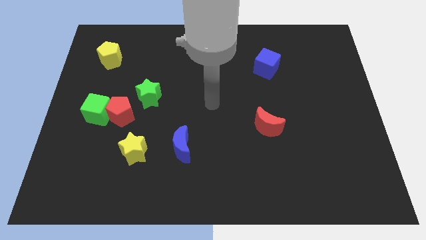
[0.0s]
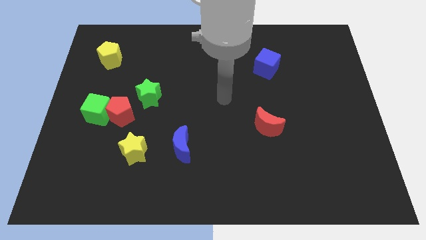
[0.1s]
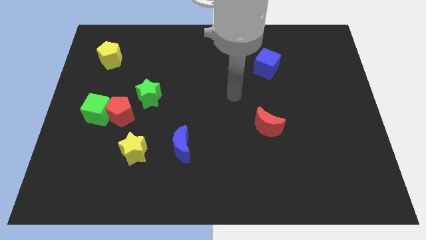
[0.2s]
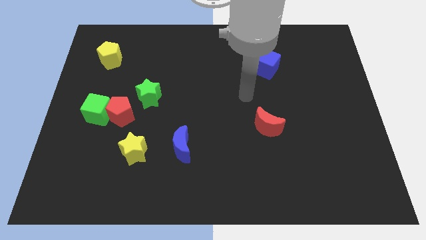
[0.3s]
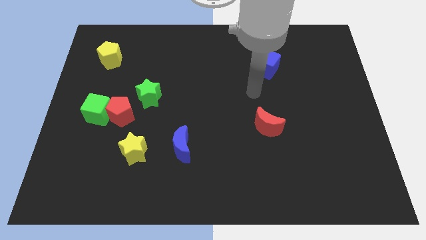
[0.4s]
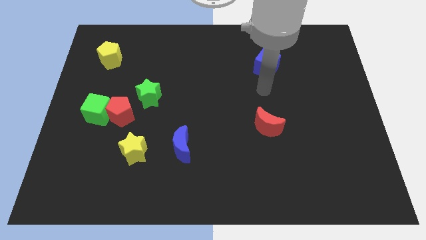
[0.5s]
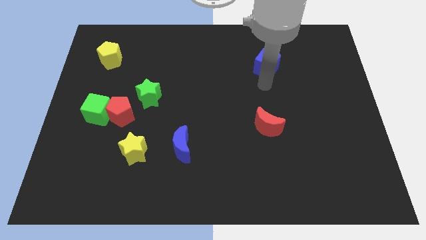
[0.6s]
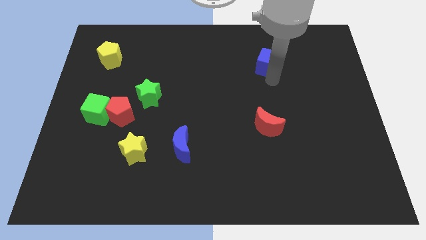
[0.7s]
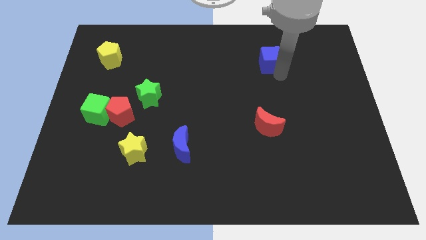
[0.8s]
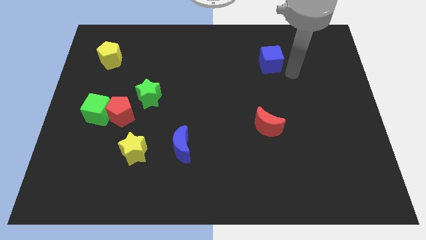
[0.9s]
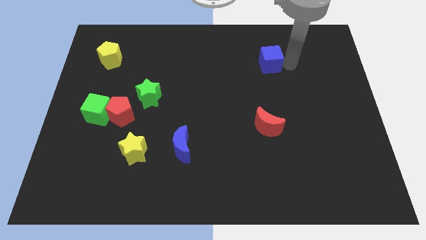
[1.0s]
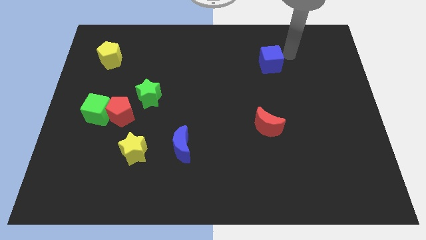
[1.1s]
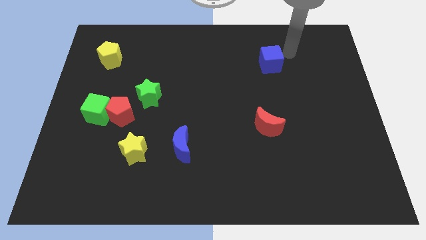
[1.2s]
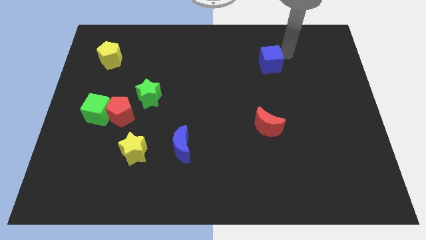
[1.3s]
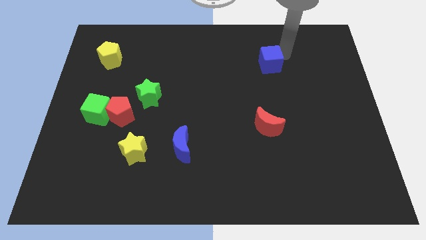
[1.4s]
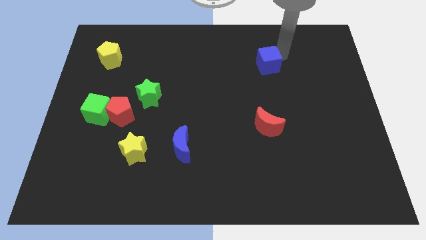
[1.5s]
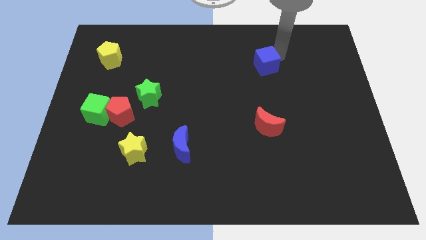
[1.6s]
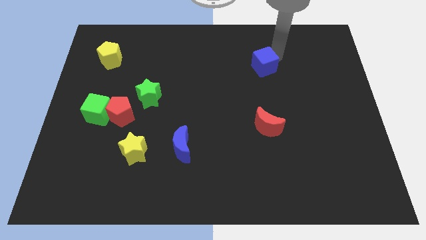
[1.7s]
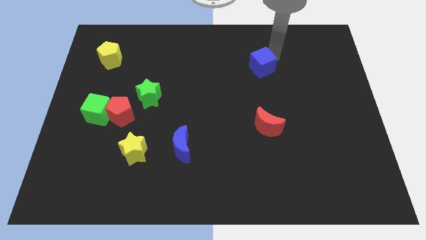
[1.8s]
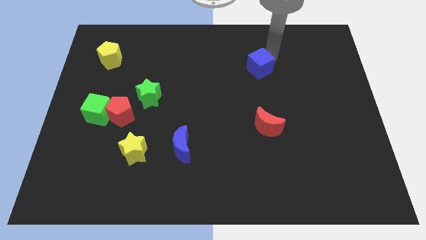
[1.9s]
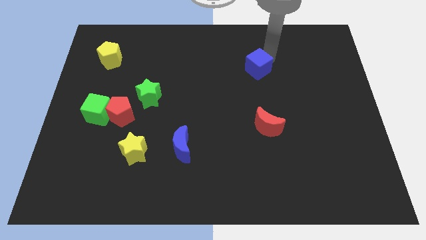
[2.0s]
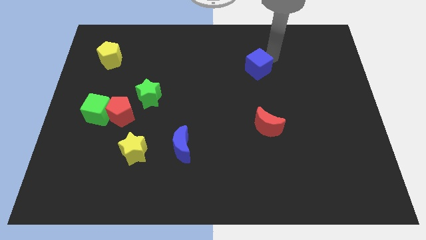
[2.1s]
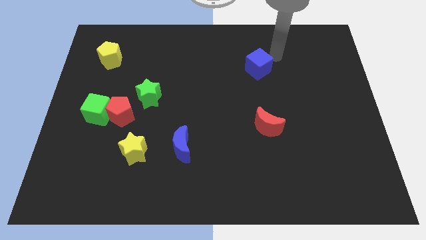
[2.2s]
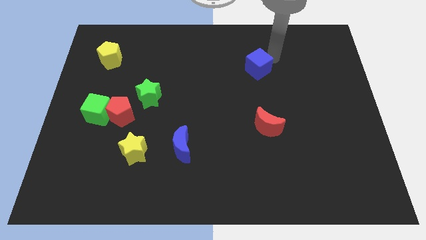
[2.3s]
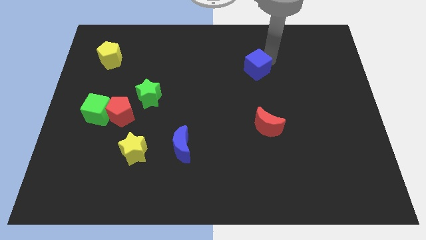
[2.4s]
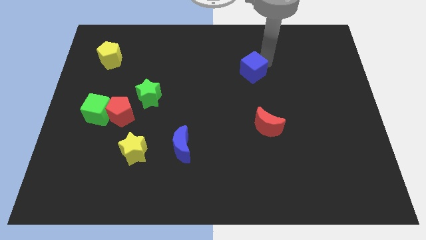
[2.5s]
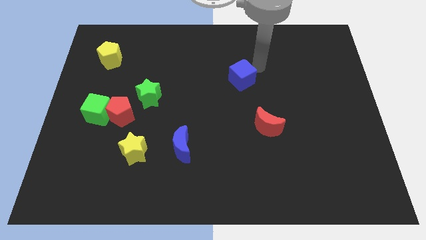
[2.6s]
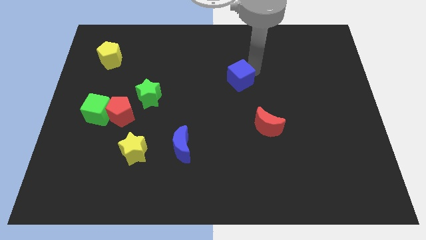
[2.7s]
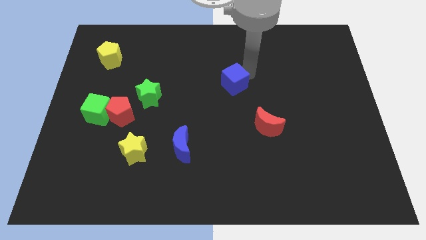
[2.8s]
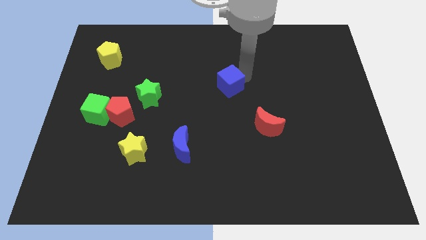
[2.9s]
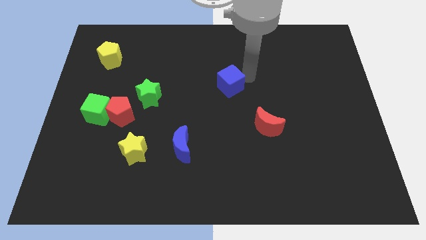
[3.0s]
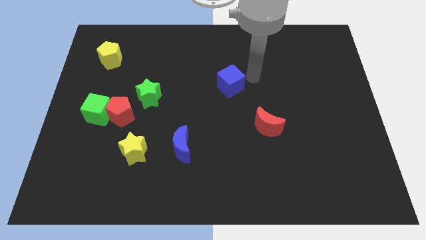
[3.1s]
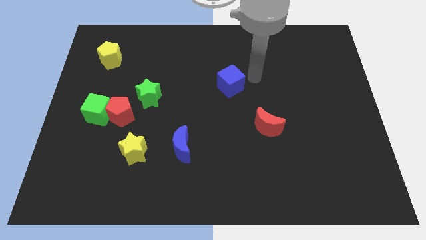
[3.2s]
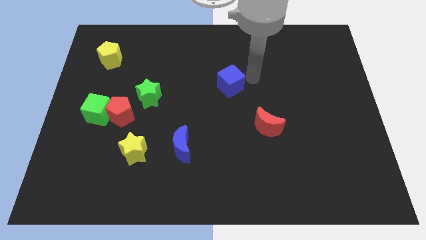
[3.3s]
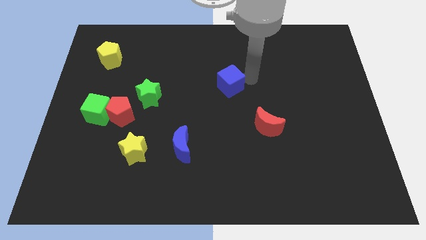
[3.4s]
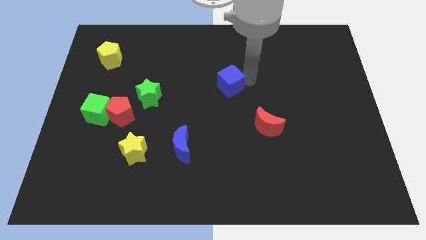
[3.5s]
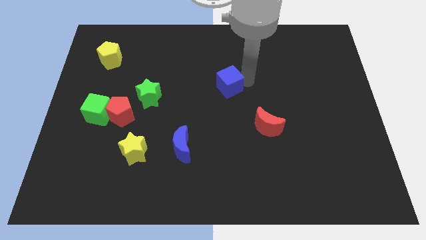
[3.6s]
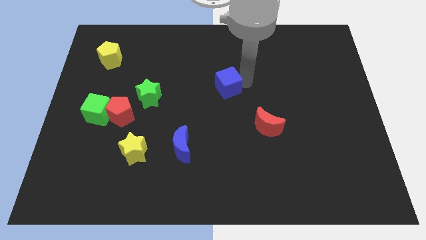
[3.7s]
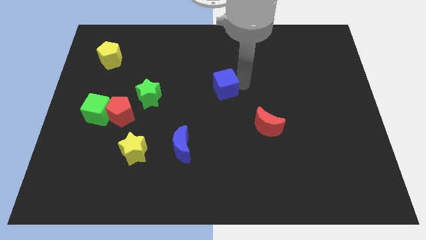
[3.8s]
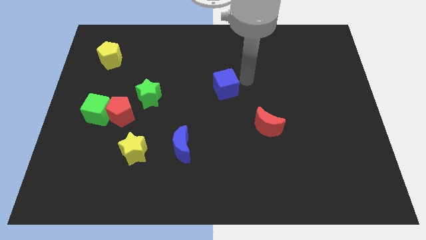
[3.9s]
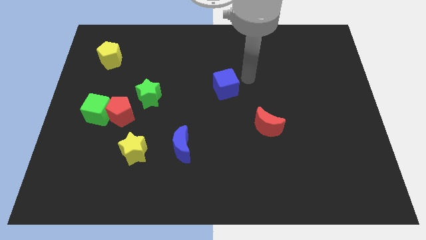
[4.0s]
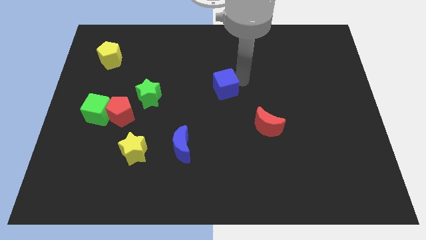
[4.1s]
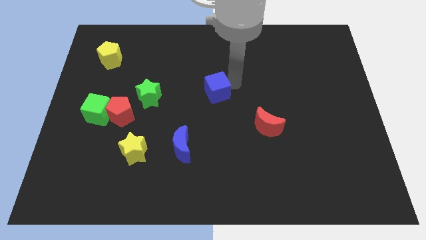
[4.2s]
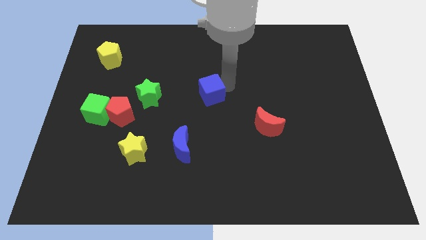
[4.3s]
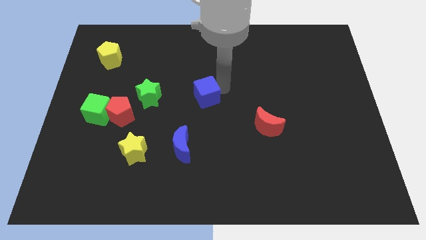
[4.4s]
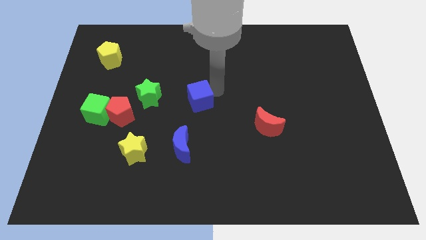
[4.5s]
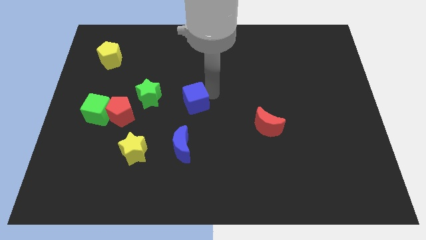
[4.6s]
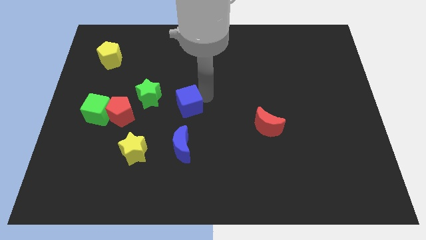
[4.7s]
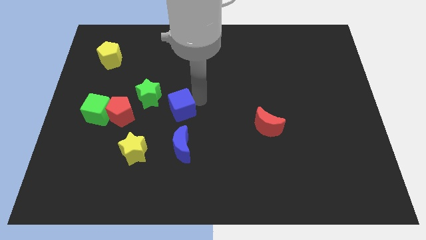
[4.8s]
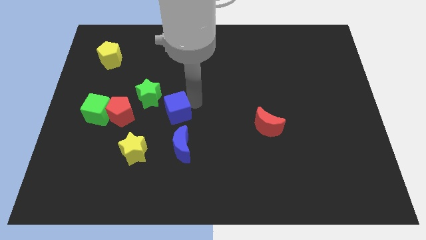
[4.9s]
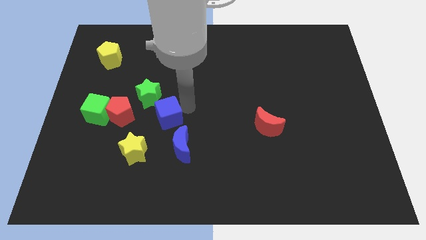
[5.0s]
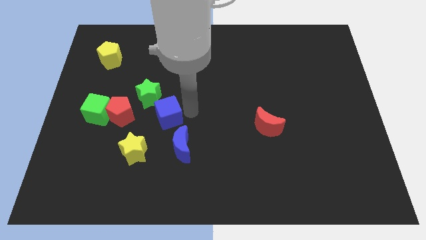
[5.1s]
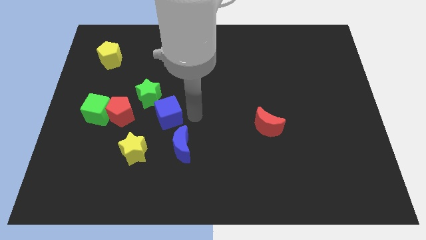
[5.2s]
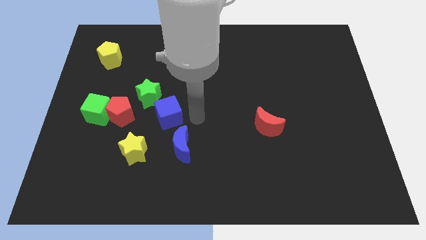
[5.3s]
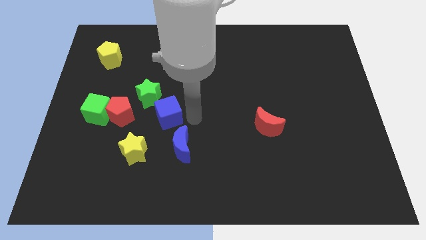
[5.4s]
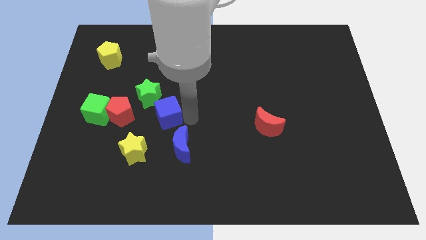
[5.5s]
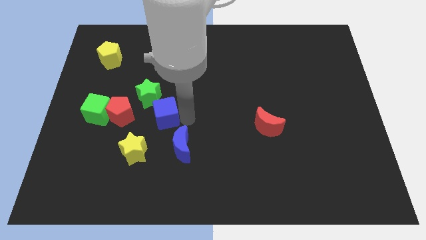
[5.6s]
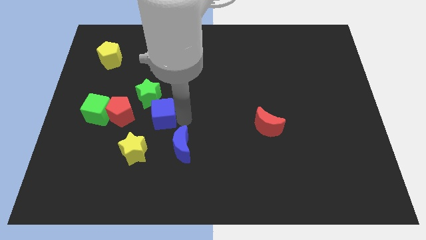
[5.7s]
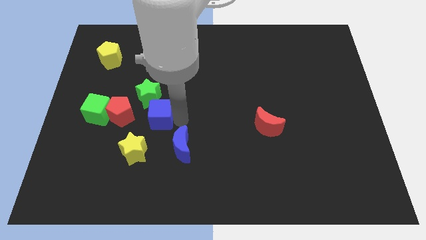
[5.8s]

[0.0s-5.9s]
slide the blue cube to the top of the yellow star

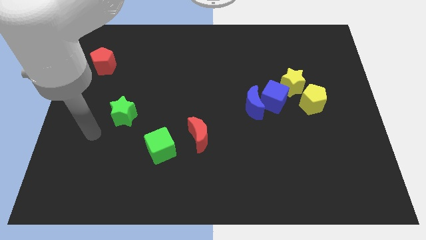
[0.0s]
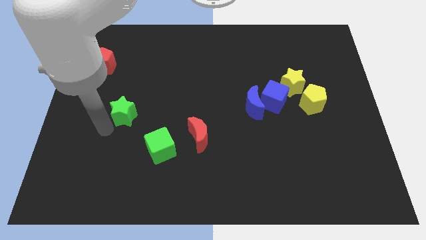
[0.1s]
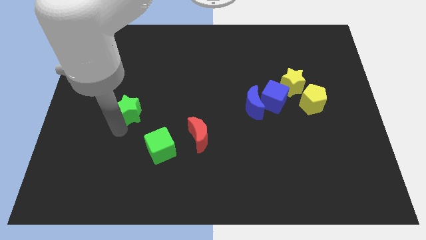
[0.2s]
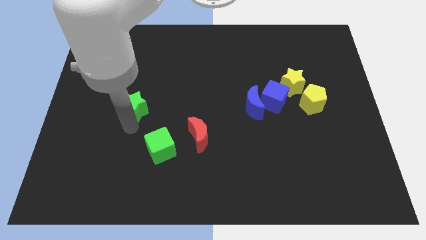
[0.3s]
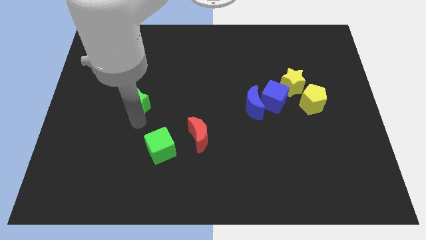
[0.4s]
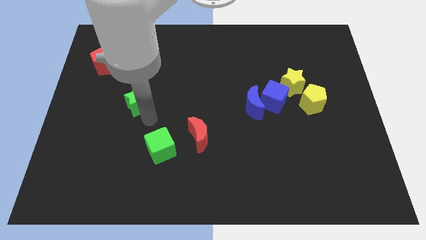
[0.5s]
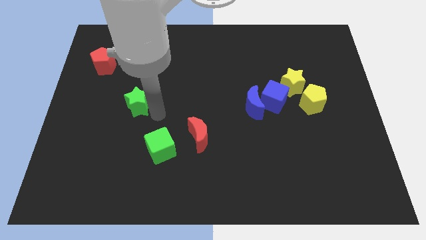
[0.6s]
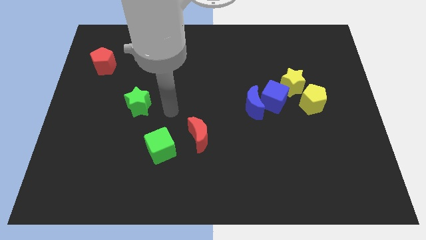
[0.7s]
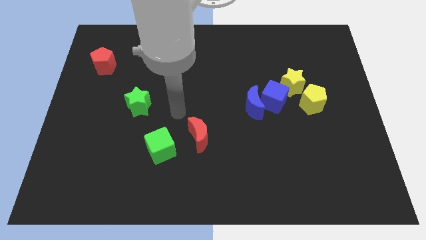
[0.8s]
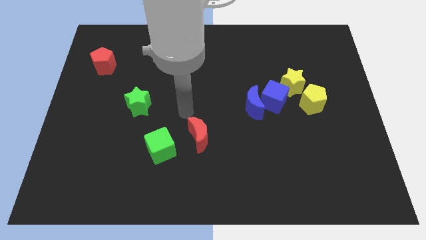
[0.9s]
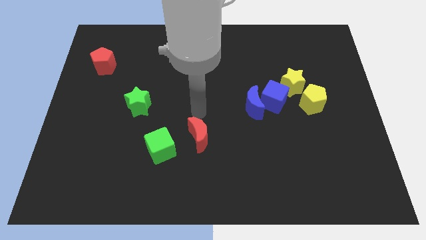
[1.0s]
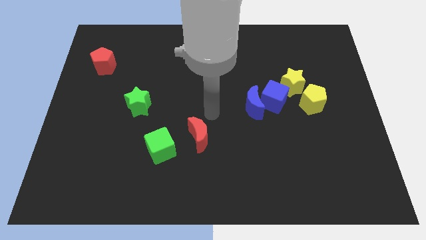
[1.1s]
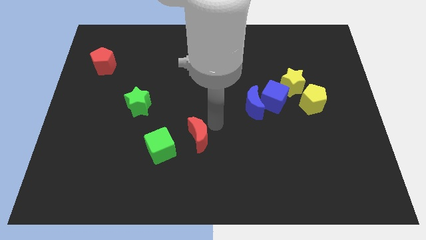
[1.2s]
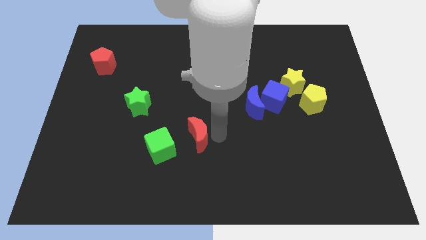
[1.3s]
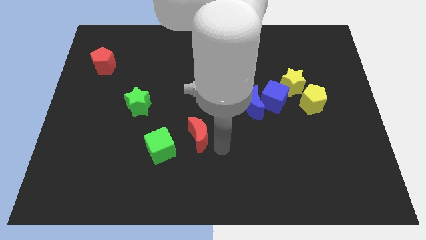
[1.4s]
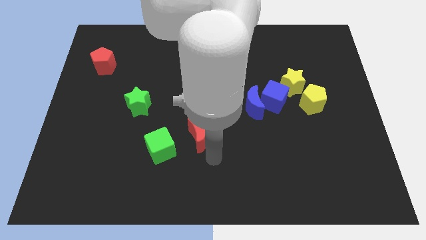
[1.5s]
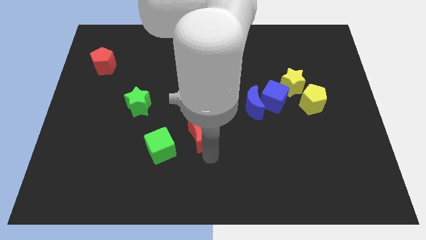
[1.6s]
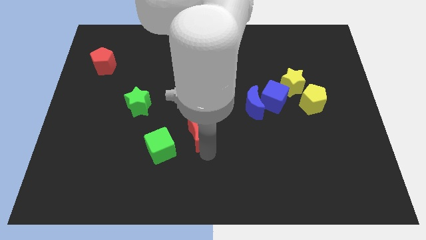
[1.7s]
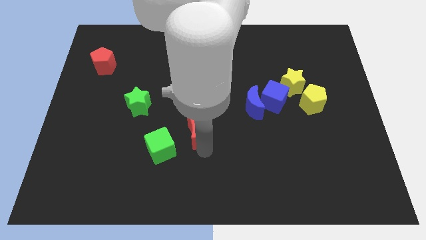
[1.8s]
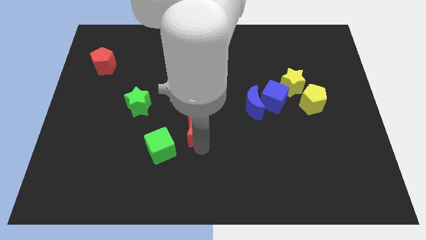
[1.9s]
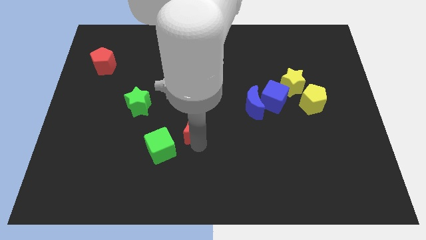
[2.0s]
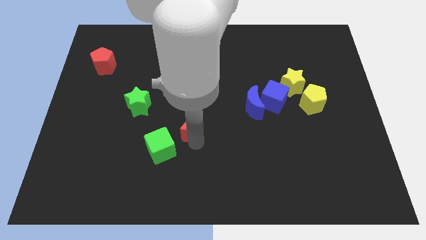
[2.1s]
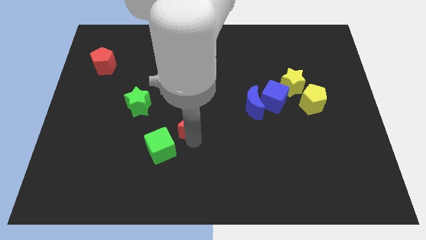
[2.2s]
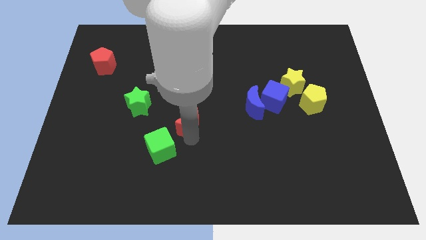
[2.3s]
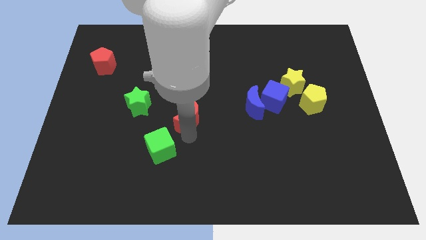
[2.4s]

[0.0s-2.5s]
slide the red moon to the right side of the green star
